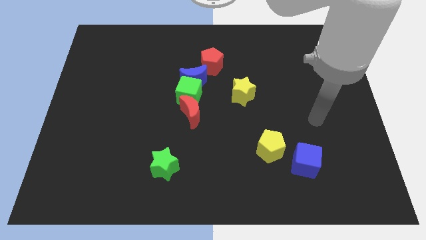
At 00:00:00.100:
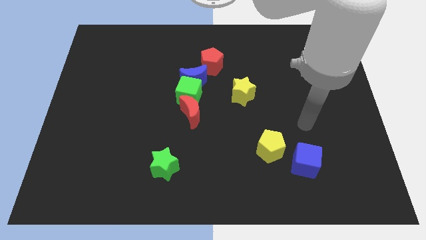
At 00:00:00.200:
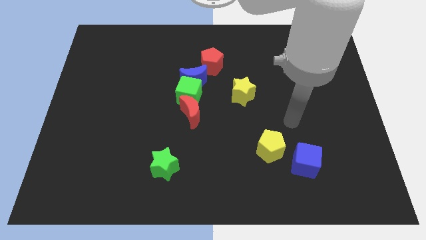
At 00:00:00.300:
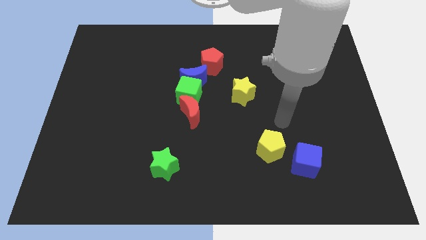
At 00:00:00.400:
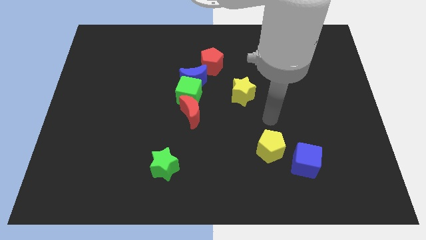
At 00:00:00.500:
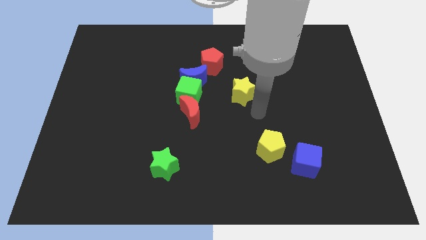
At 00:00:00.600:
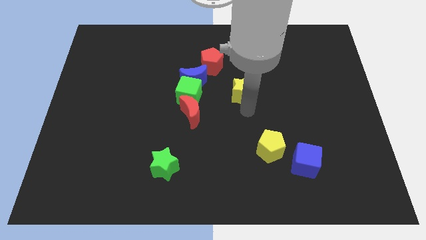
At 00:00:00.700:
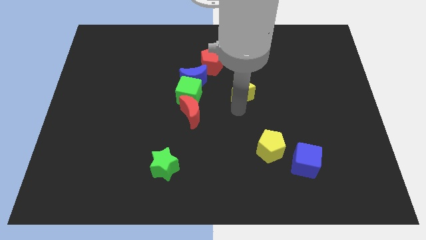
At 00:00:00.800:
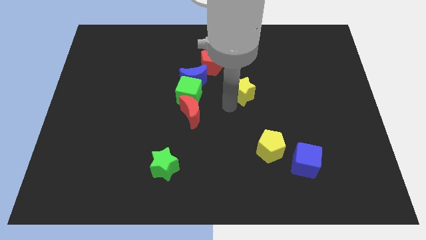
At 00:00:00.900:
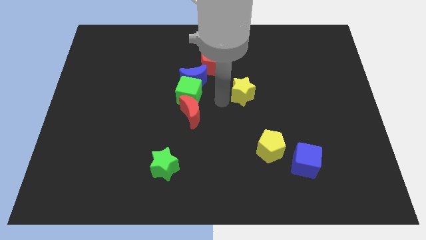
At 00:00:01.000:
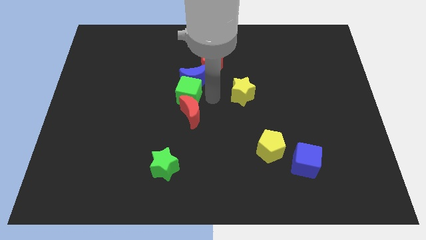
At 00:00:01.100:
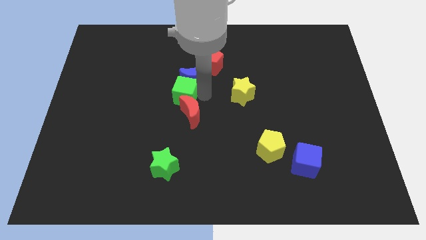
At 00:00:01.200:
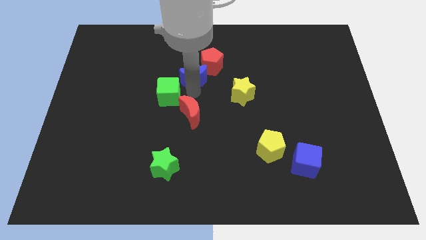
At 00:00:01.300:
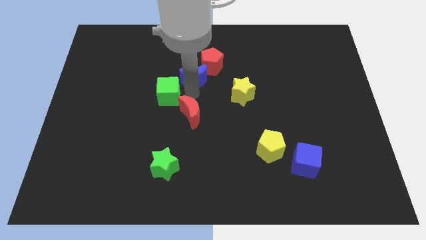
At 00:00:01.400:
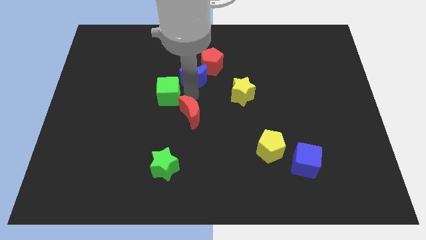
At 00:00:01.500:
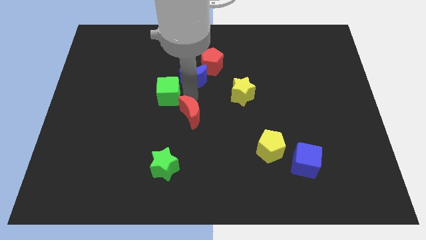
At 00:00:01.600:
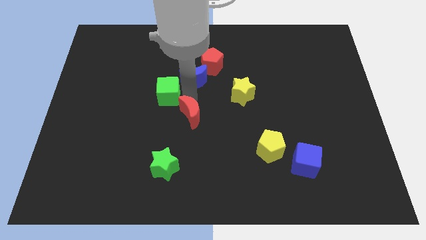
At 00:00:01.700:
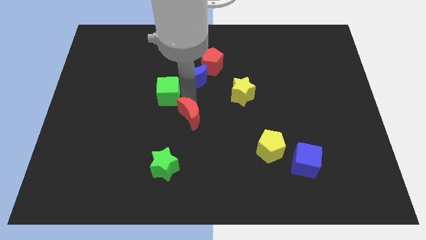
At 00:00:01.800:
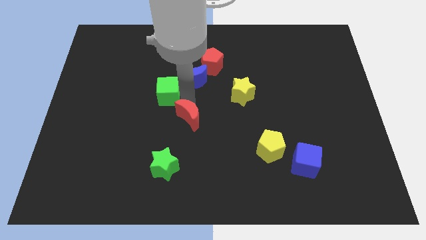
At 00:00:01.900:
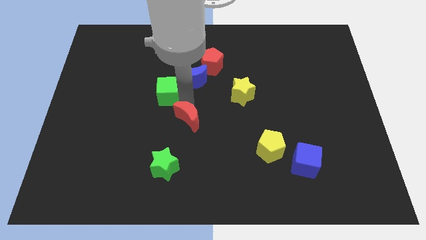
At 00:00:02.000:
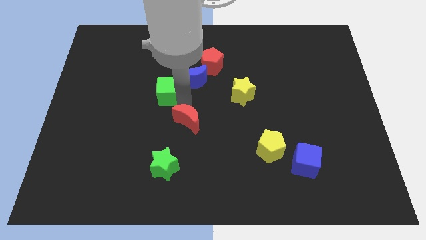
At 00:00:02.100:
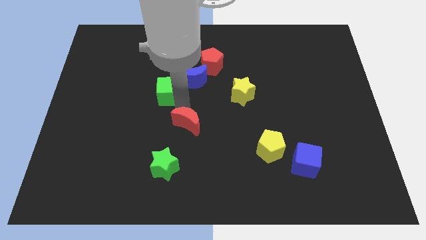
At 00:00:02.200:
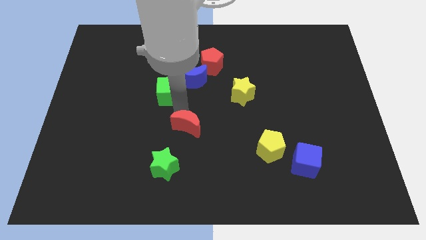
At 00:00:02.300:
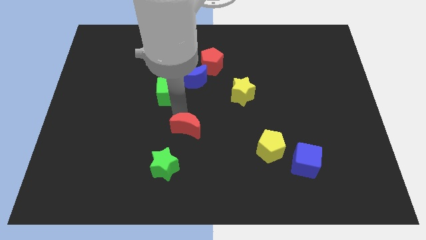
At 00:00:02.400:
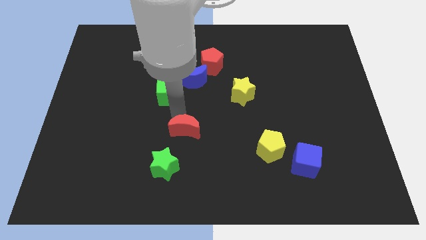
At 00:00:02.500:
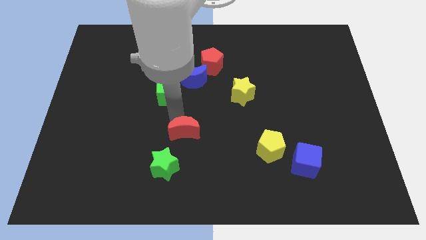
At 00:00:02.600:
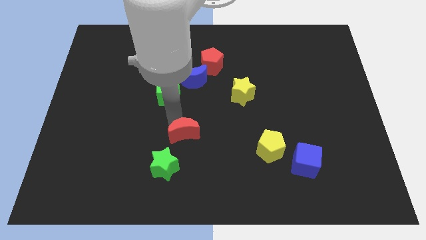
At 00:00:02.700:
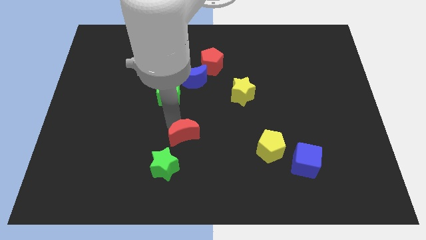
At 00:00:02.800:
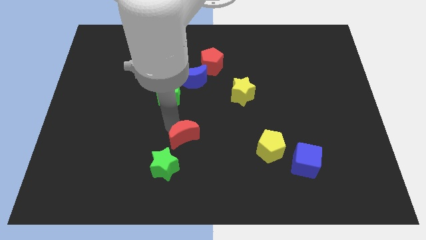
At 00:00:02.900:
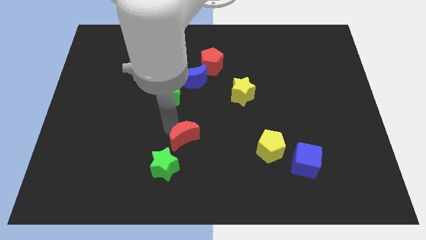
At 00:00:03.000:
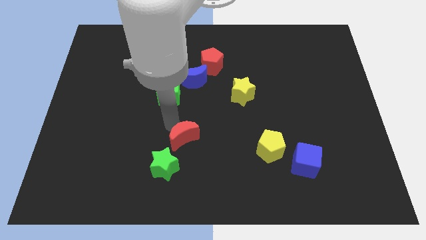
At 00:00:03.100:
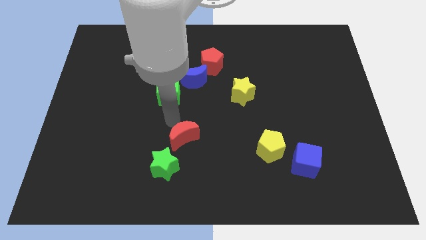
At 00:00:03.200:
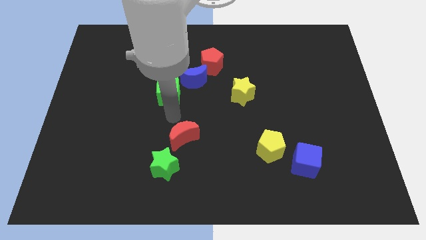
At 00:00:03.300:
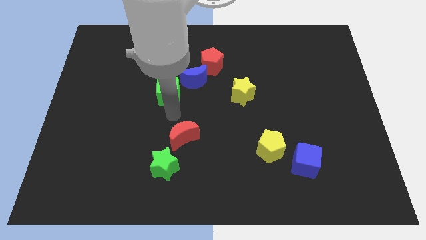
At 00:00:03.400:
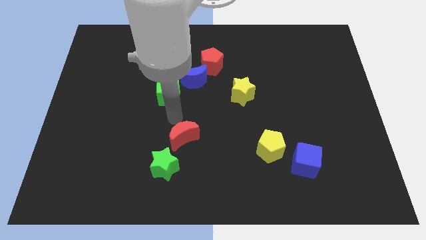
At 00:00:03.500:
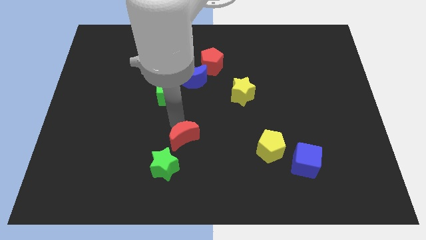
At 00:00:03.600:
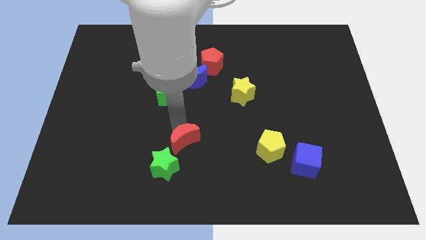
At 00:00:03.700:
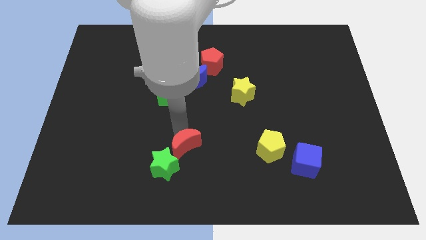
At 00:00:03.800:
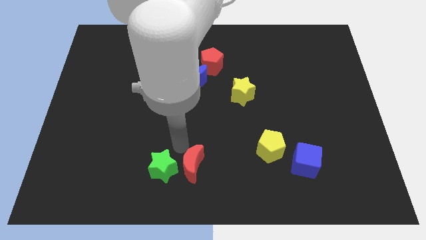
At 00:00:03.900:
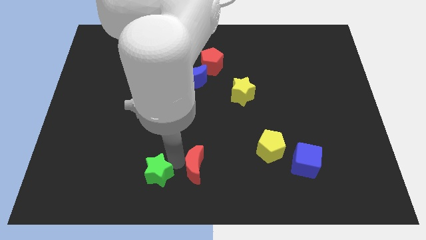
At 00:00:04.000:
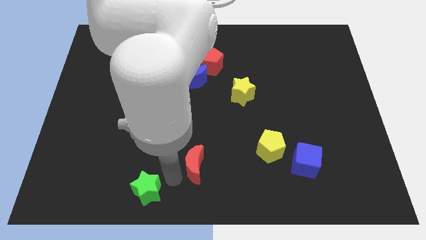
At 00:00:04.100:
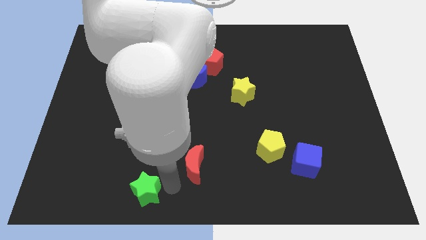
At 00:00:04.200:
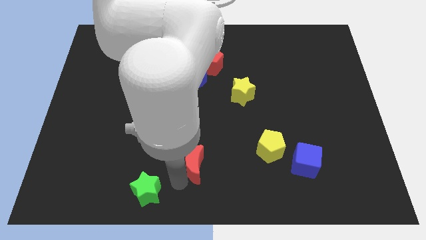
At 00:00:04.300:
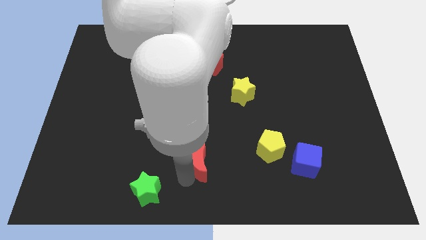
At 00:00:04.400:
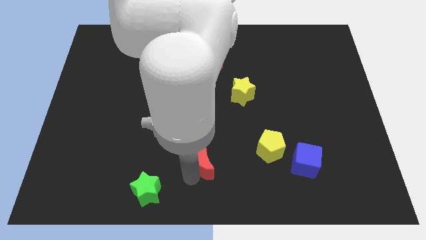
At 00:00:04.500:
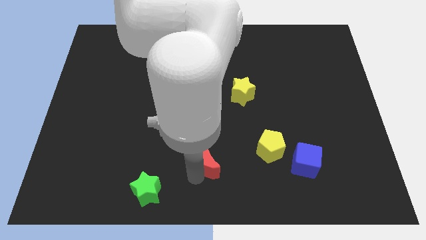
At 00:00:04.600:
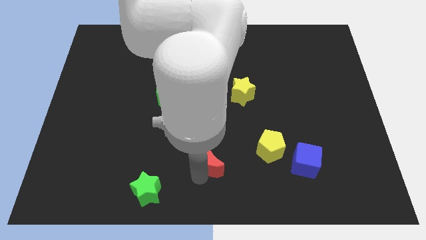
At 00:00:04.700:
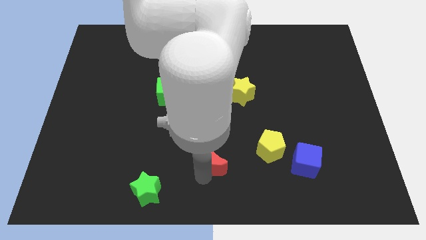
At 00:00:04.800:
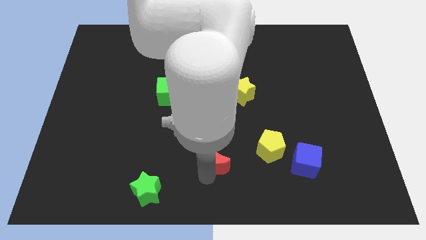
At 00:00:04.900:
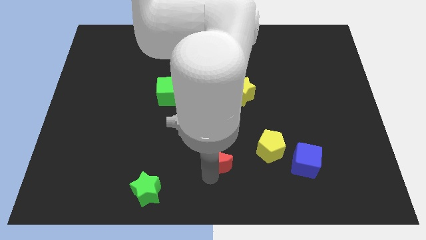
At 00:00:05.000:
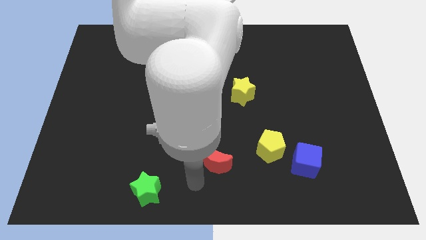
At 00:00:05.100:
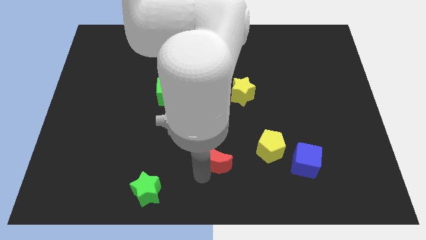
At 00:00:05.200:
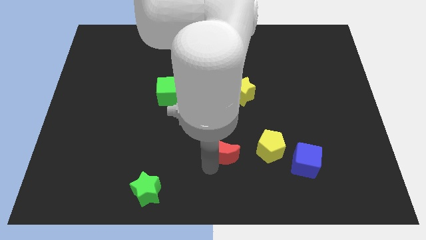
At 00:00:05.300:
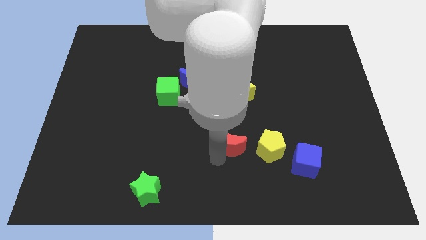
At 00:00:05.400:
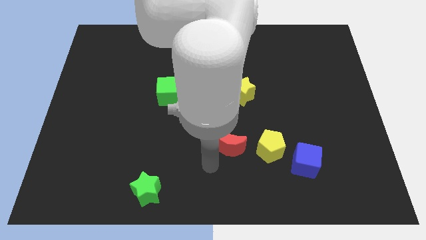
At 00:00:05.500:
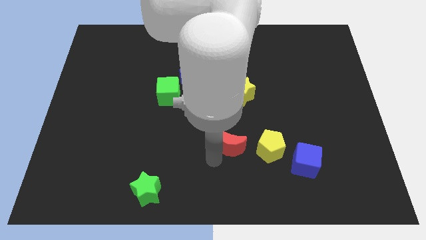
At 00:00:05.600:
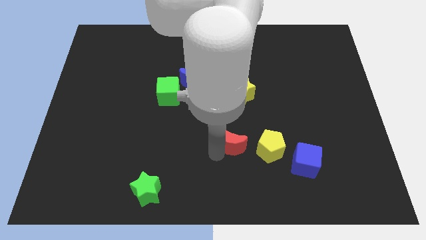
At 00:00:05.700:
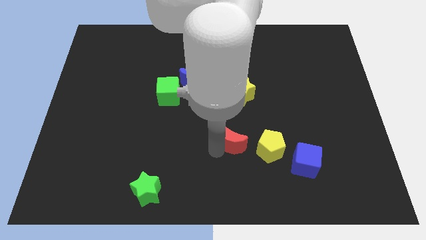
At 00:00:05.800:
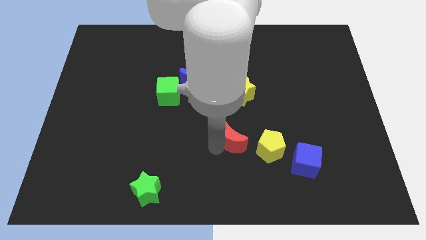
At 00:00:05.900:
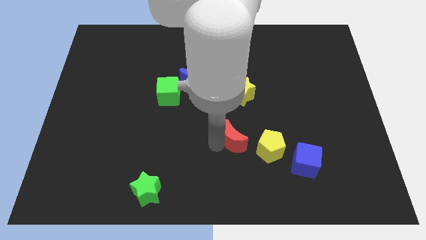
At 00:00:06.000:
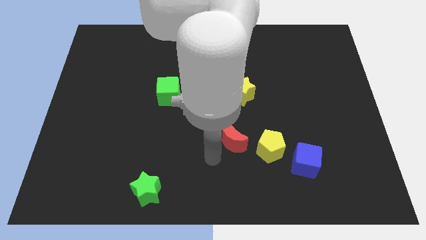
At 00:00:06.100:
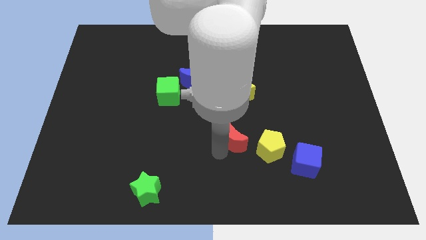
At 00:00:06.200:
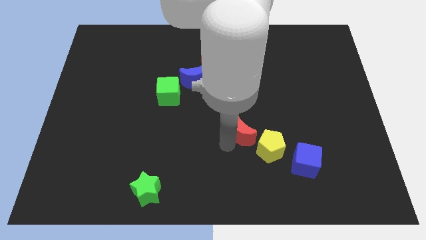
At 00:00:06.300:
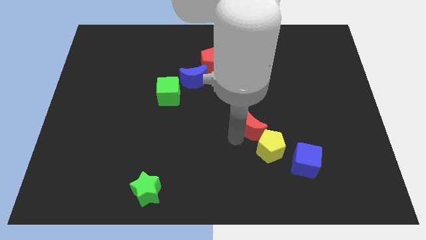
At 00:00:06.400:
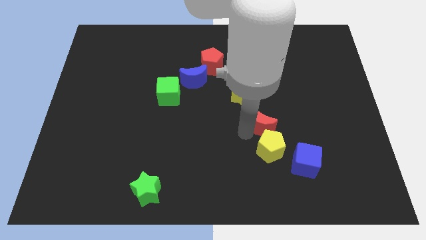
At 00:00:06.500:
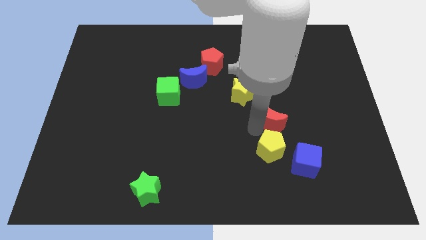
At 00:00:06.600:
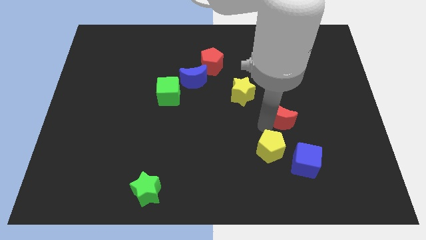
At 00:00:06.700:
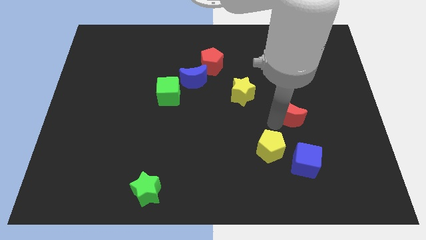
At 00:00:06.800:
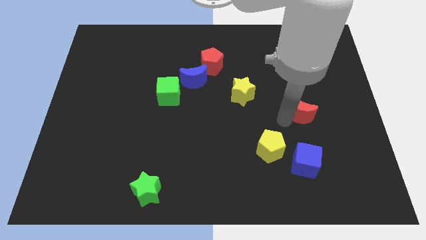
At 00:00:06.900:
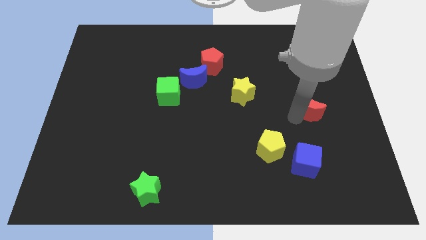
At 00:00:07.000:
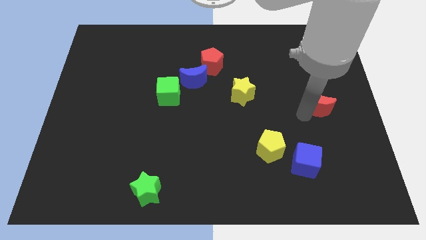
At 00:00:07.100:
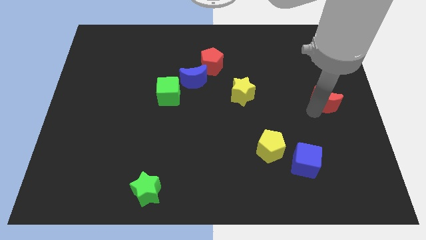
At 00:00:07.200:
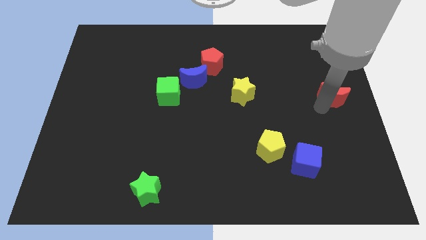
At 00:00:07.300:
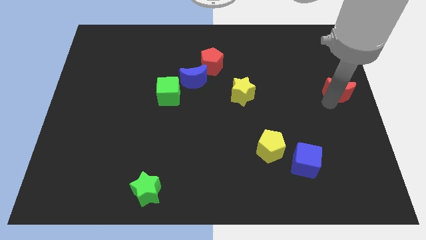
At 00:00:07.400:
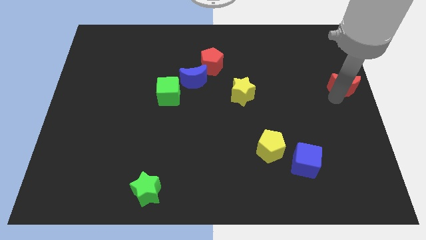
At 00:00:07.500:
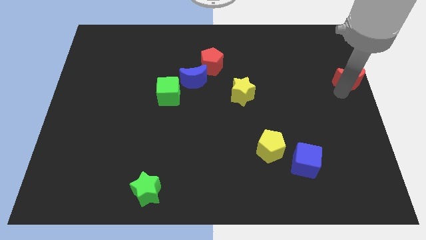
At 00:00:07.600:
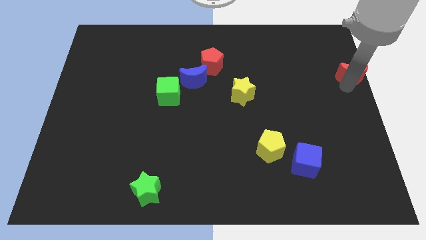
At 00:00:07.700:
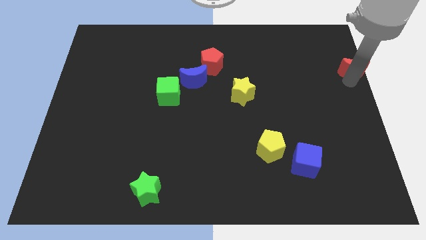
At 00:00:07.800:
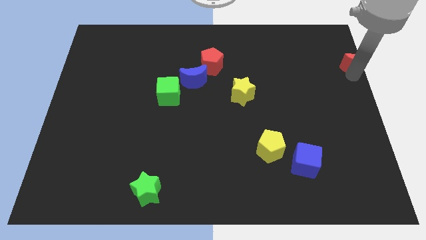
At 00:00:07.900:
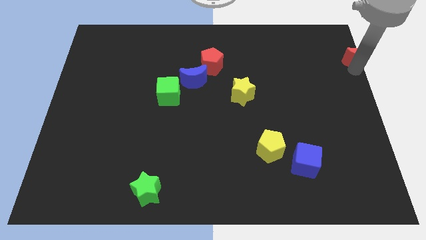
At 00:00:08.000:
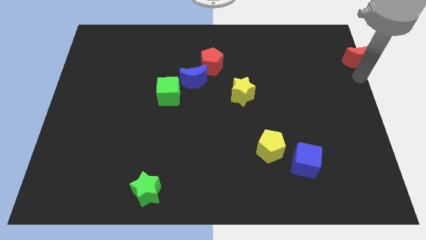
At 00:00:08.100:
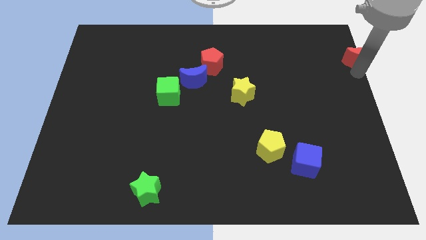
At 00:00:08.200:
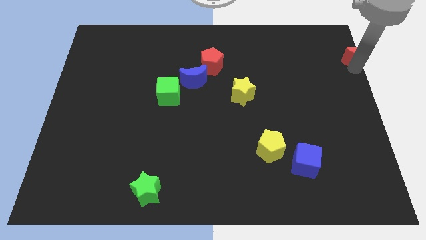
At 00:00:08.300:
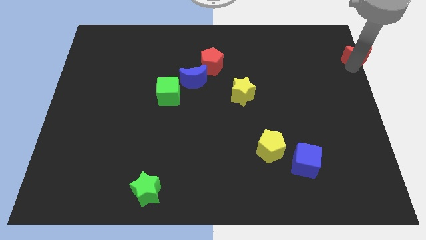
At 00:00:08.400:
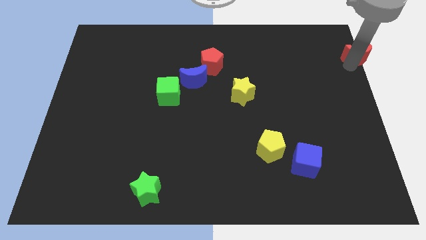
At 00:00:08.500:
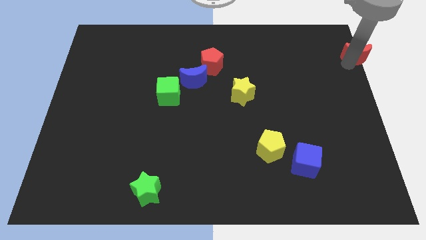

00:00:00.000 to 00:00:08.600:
slide the red moon to the top right of the board
